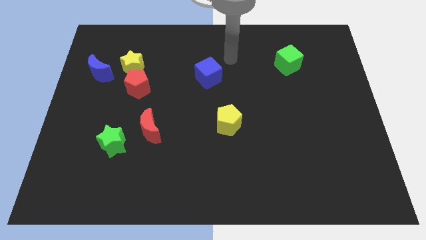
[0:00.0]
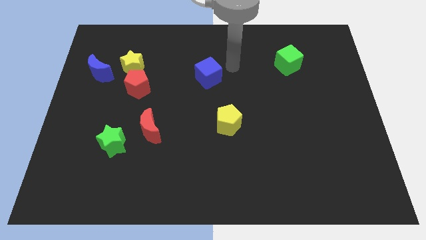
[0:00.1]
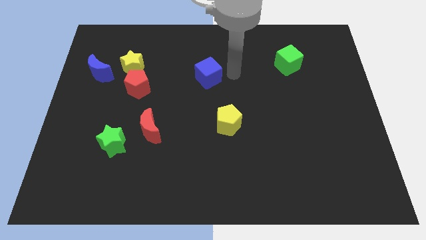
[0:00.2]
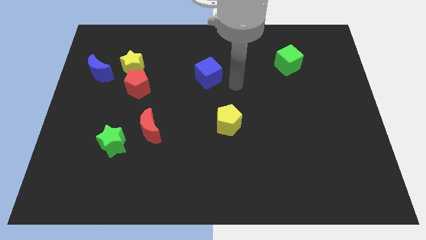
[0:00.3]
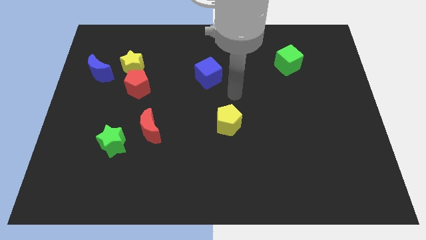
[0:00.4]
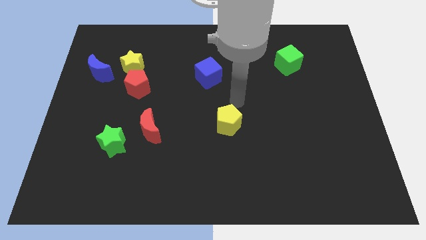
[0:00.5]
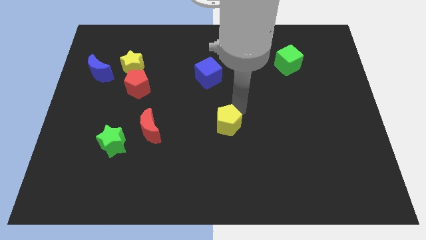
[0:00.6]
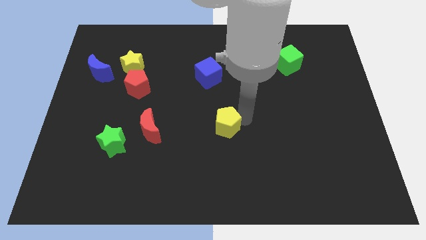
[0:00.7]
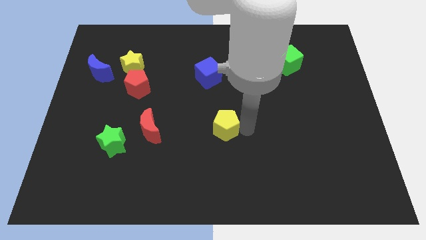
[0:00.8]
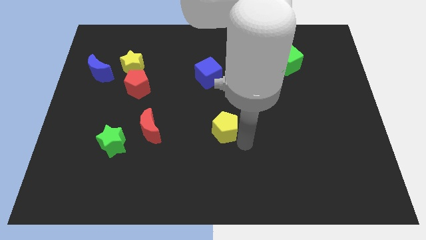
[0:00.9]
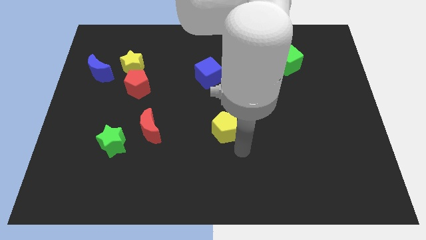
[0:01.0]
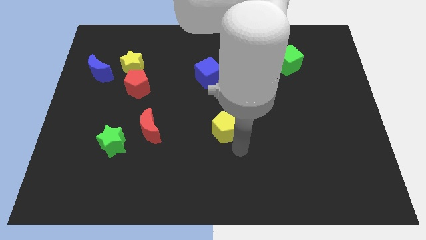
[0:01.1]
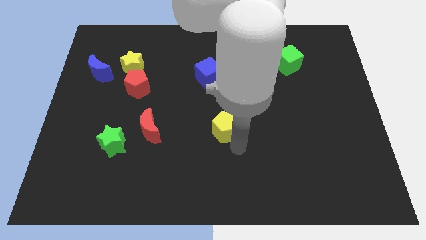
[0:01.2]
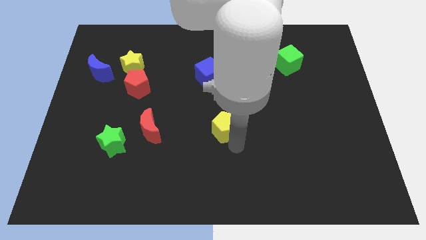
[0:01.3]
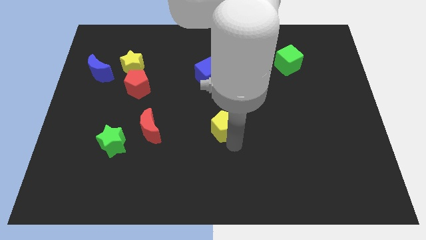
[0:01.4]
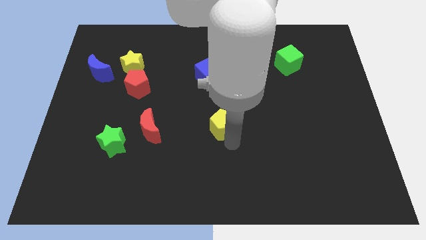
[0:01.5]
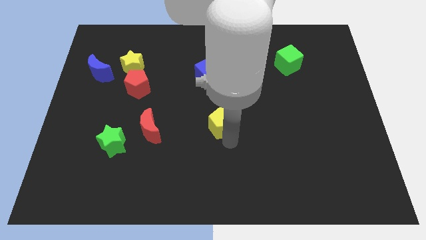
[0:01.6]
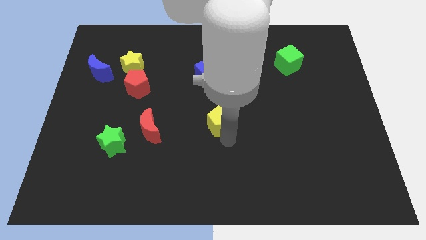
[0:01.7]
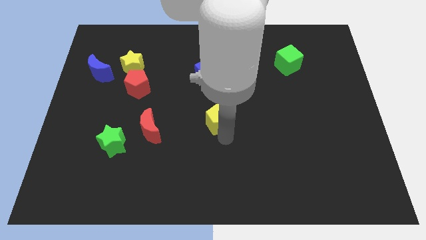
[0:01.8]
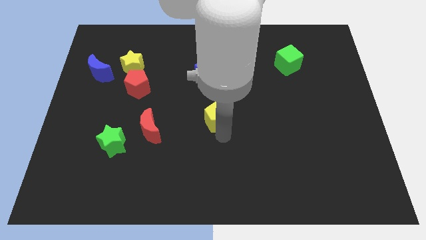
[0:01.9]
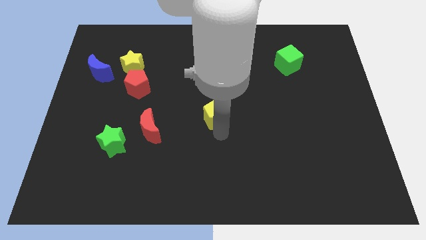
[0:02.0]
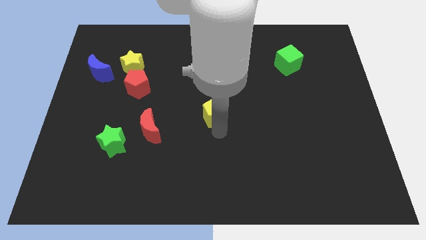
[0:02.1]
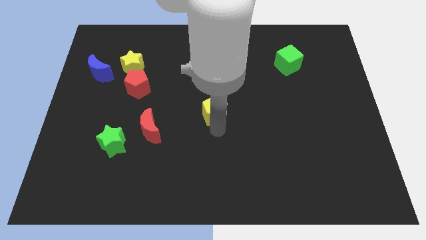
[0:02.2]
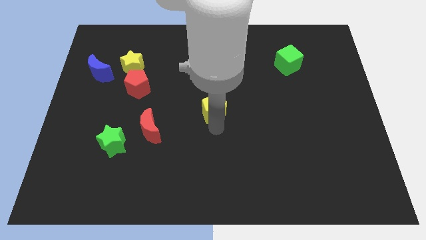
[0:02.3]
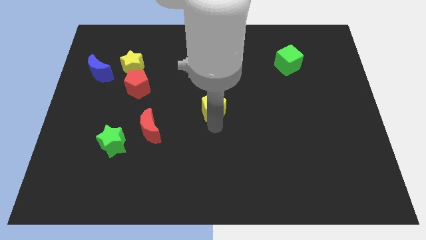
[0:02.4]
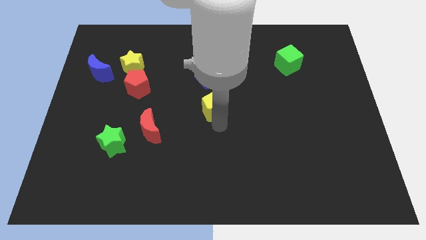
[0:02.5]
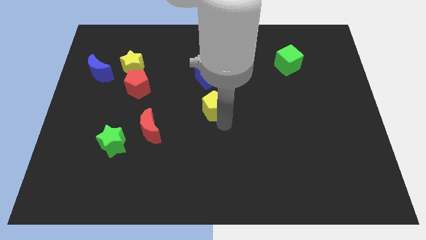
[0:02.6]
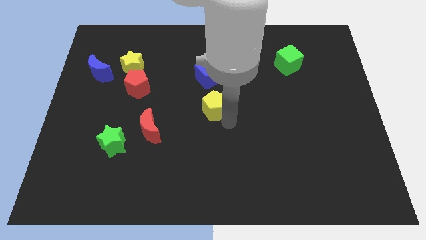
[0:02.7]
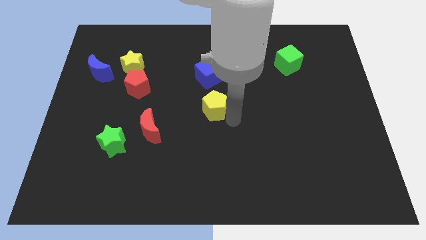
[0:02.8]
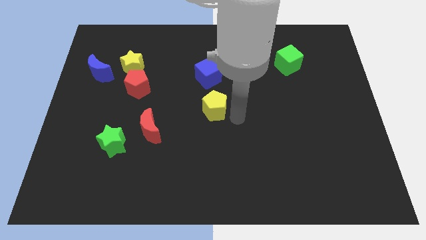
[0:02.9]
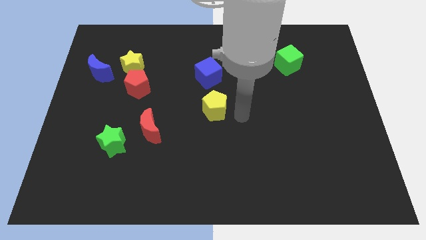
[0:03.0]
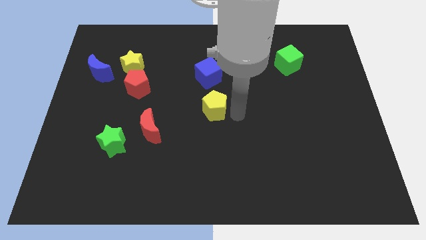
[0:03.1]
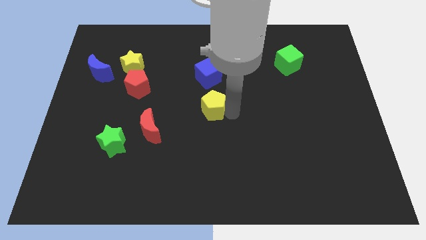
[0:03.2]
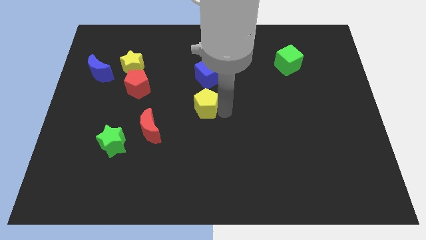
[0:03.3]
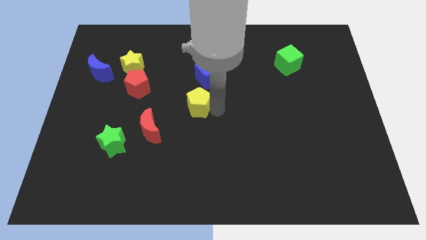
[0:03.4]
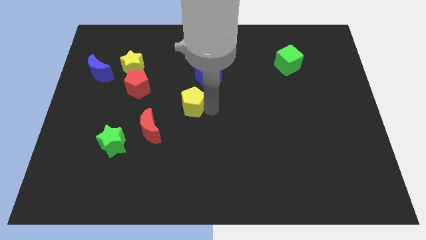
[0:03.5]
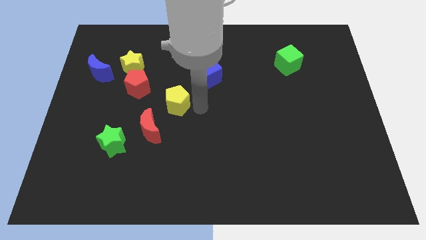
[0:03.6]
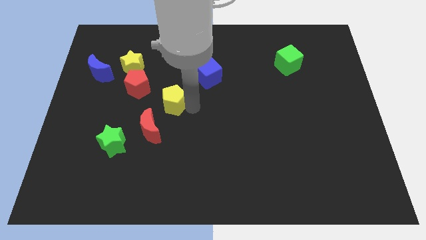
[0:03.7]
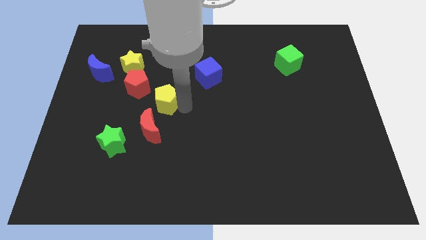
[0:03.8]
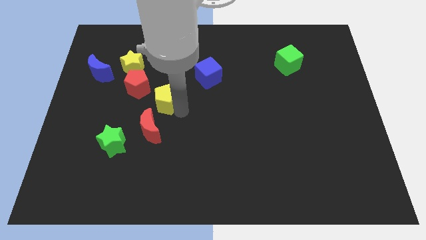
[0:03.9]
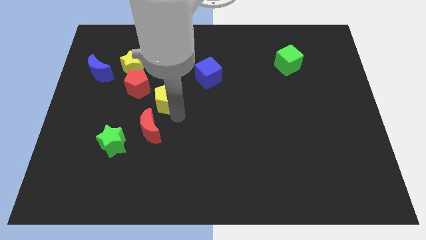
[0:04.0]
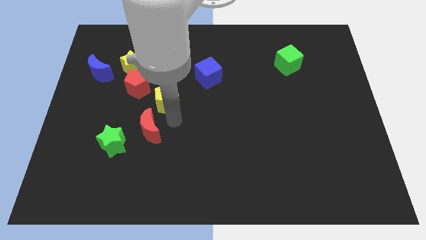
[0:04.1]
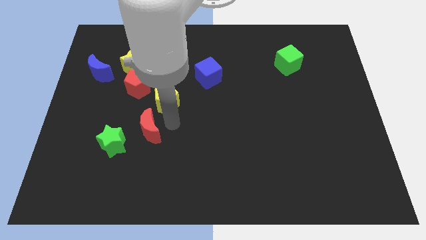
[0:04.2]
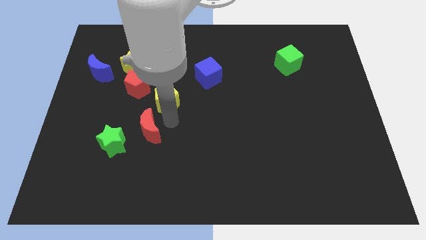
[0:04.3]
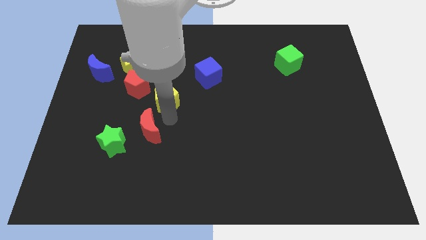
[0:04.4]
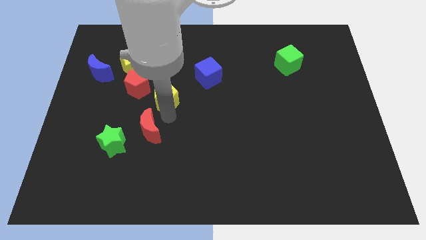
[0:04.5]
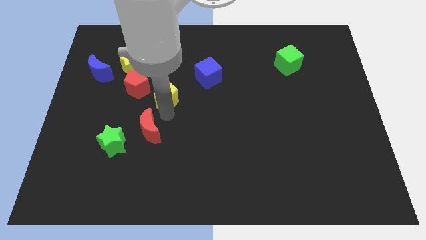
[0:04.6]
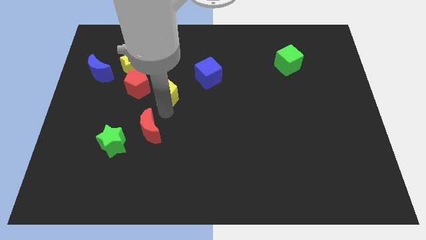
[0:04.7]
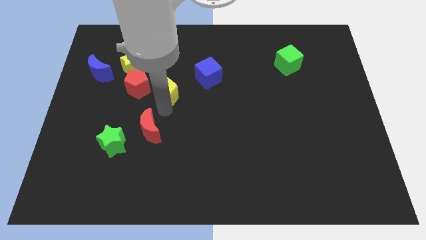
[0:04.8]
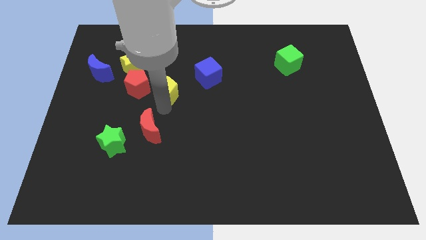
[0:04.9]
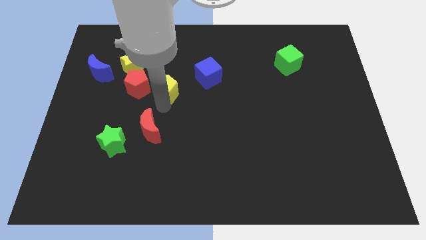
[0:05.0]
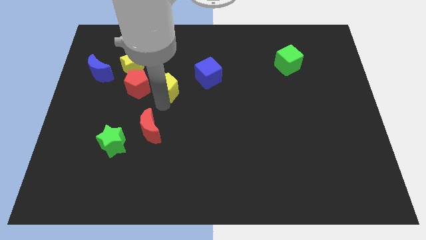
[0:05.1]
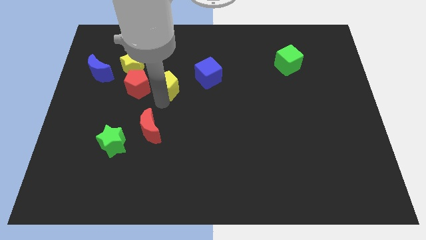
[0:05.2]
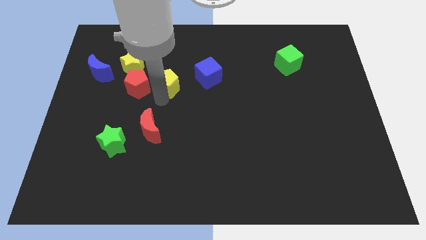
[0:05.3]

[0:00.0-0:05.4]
put the yellow pentagon diagonally up and to the right of the red pentagon
